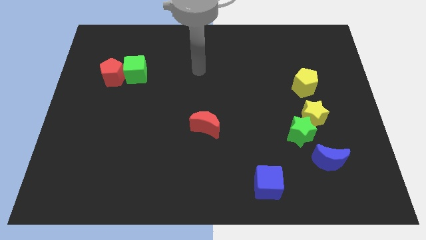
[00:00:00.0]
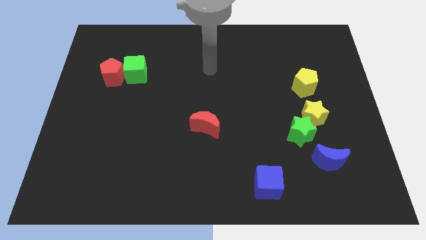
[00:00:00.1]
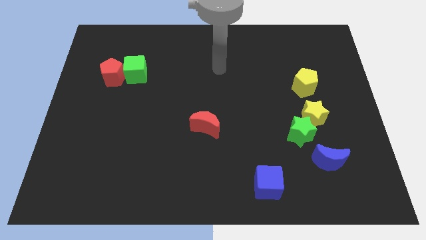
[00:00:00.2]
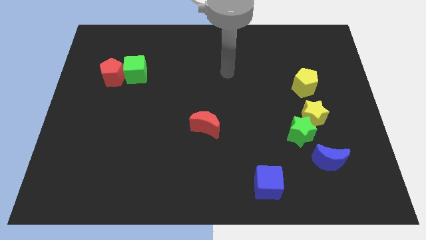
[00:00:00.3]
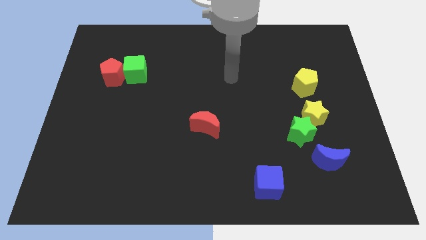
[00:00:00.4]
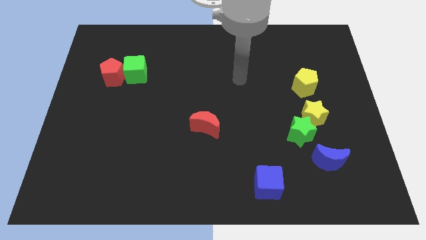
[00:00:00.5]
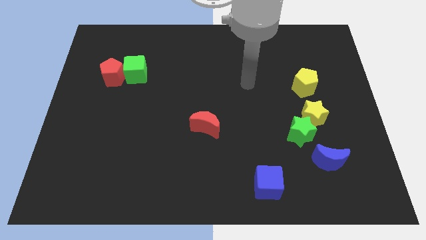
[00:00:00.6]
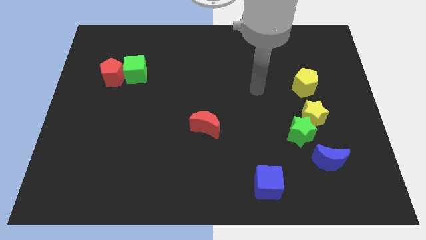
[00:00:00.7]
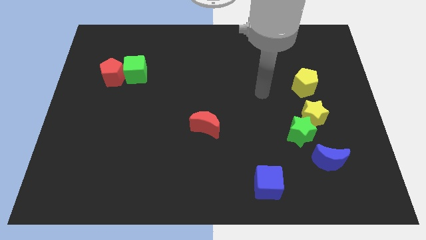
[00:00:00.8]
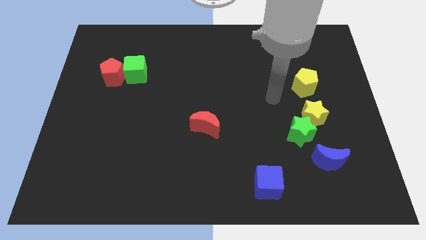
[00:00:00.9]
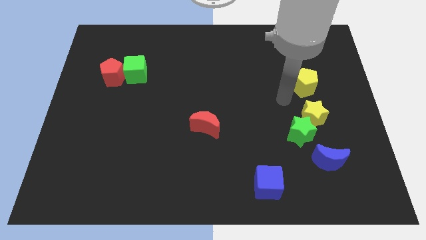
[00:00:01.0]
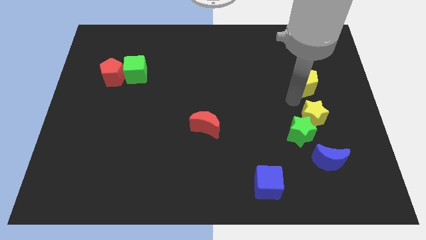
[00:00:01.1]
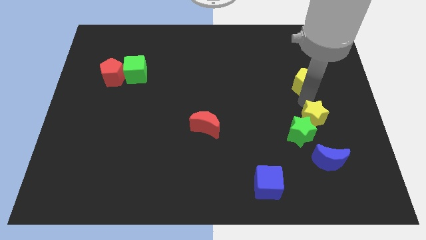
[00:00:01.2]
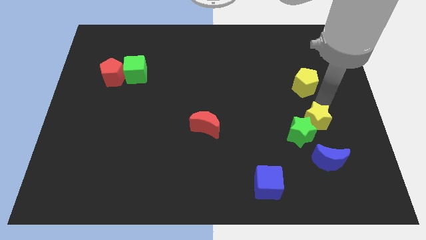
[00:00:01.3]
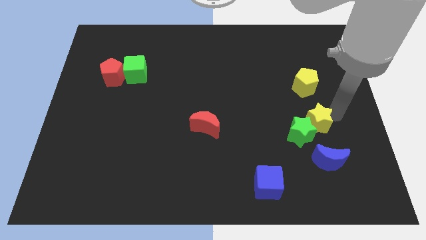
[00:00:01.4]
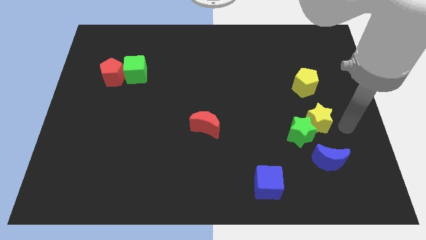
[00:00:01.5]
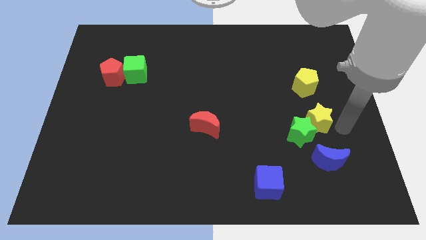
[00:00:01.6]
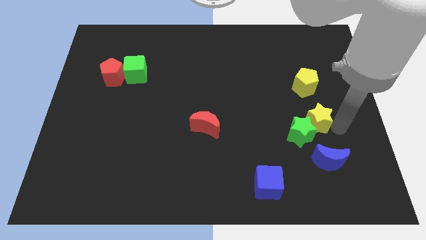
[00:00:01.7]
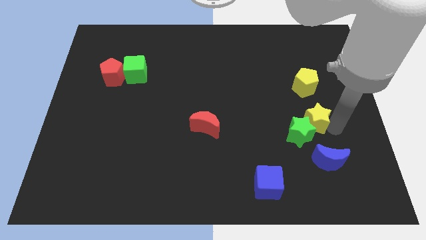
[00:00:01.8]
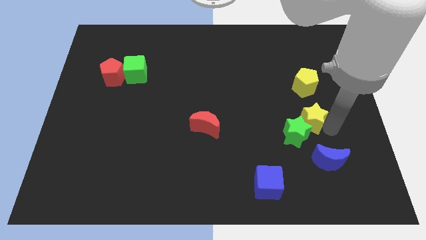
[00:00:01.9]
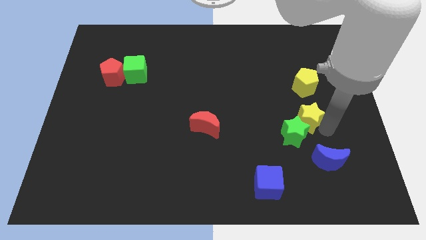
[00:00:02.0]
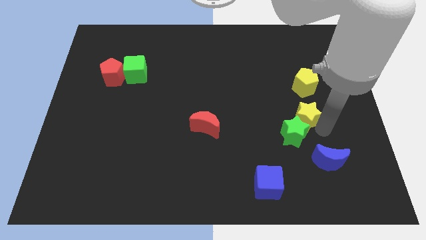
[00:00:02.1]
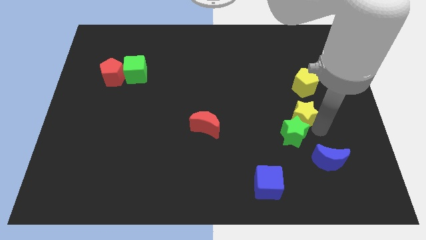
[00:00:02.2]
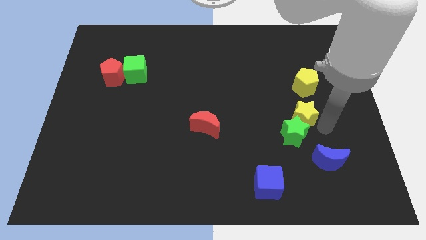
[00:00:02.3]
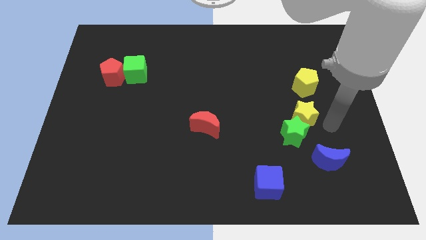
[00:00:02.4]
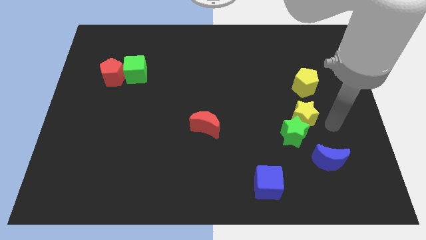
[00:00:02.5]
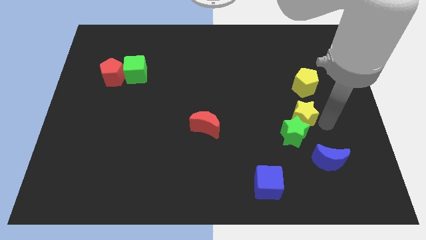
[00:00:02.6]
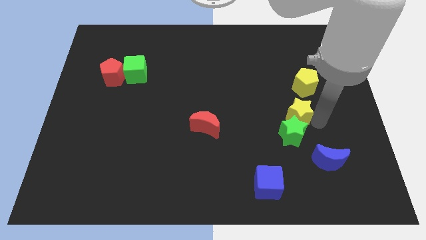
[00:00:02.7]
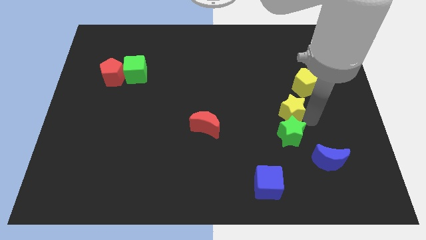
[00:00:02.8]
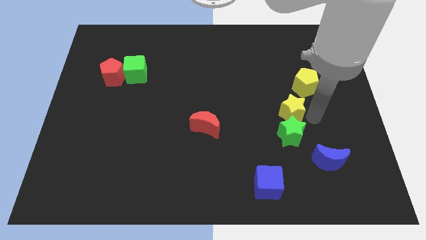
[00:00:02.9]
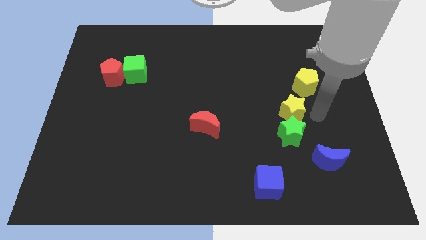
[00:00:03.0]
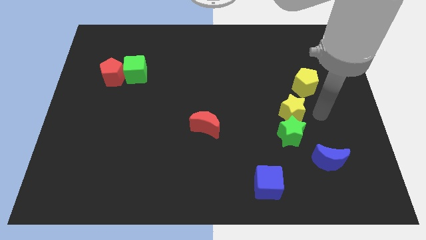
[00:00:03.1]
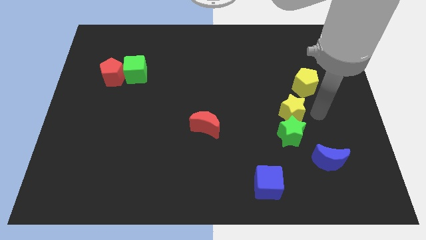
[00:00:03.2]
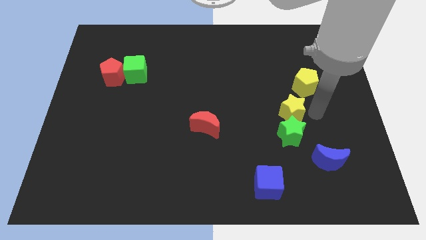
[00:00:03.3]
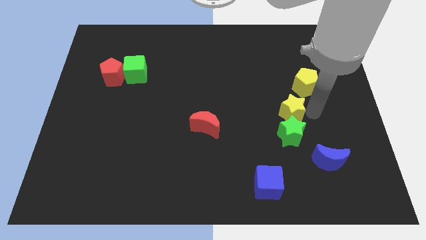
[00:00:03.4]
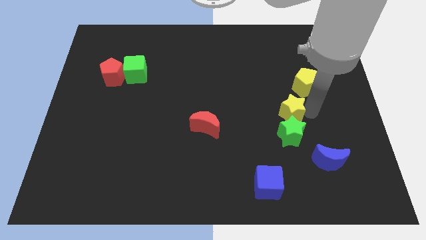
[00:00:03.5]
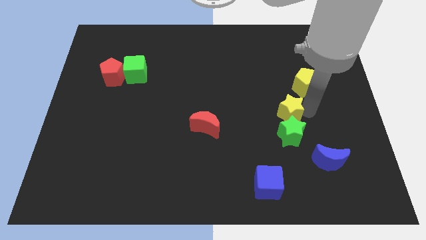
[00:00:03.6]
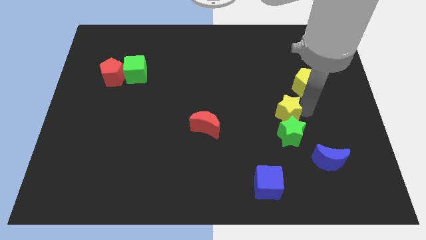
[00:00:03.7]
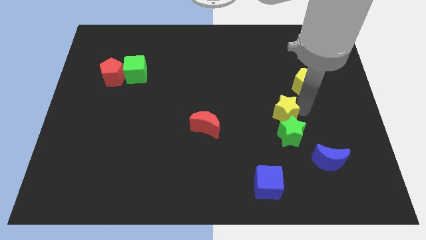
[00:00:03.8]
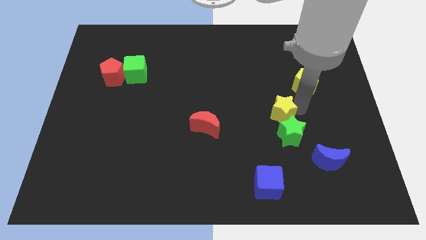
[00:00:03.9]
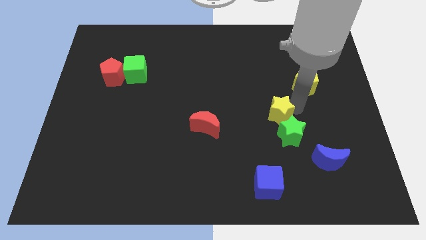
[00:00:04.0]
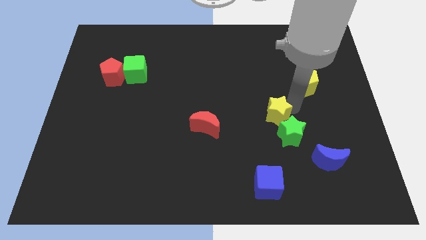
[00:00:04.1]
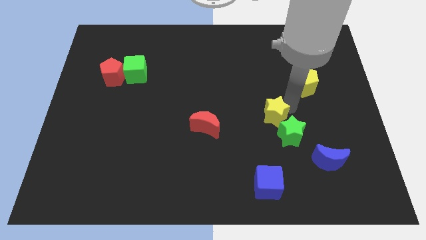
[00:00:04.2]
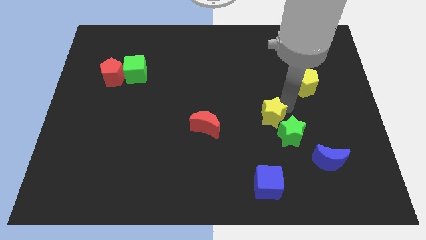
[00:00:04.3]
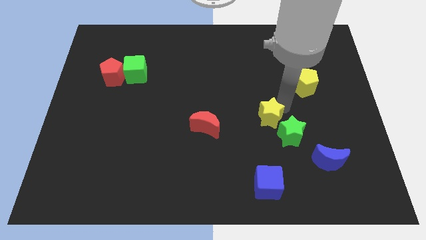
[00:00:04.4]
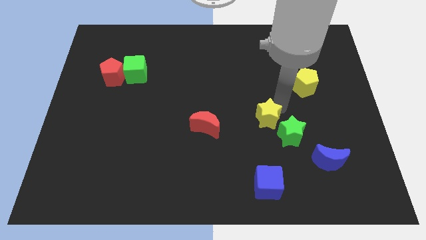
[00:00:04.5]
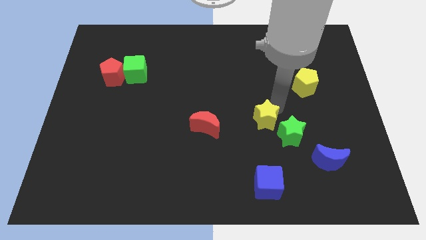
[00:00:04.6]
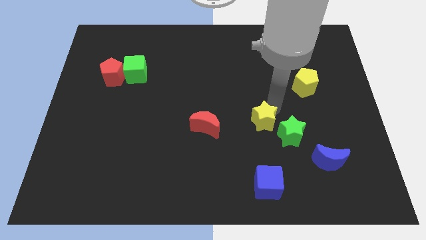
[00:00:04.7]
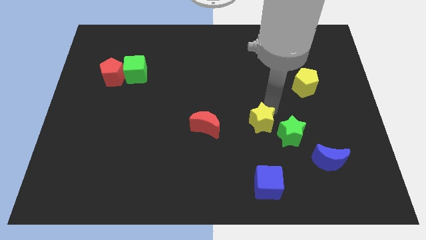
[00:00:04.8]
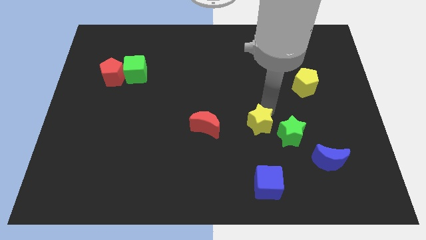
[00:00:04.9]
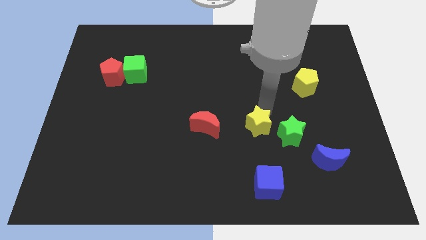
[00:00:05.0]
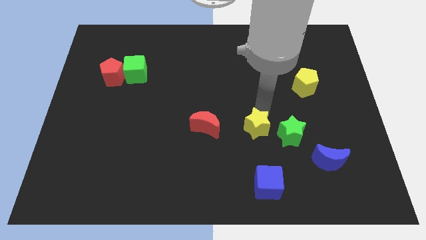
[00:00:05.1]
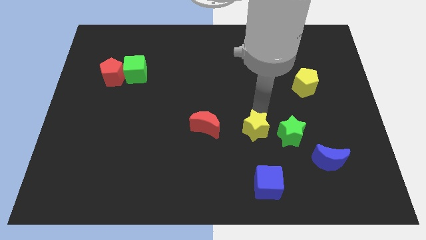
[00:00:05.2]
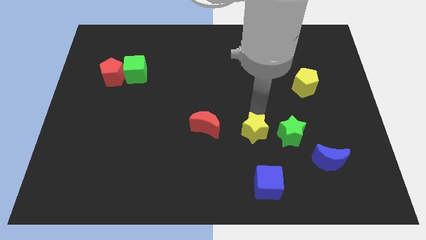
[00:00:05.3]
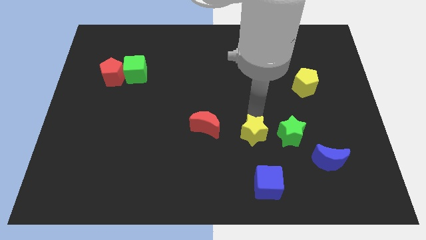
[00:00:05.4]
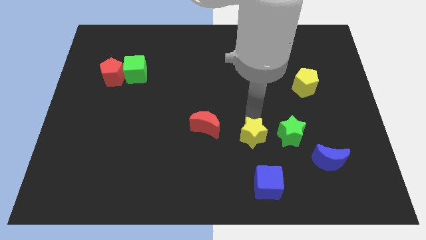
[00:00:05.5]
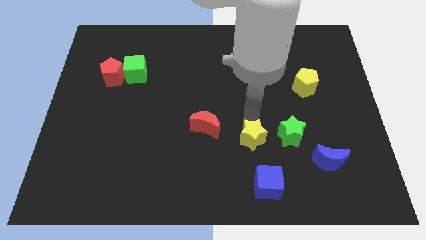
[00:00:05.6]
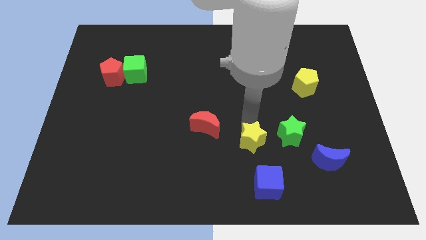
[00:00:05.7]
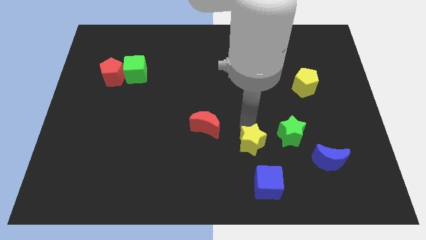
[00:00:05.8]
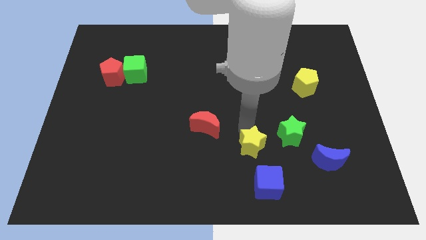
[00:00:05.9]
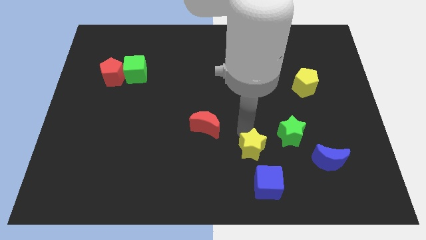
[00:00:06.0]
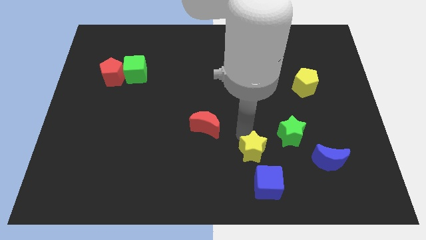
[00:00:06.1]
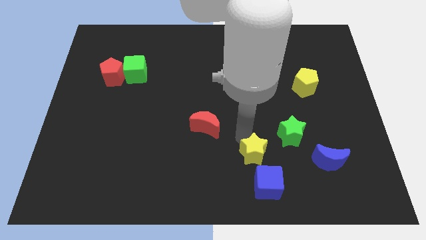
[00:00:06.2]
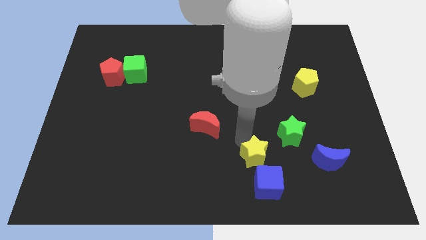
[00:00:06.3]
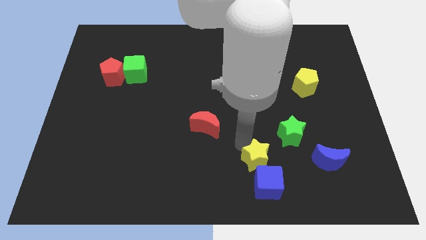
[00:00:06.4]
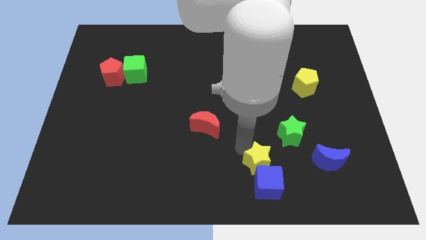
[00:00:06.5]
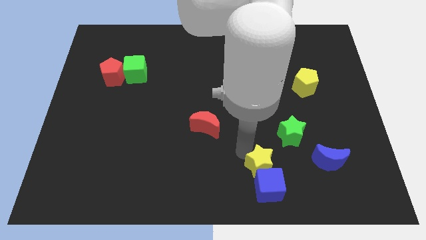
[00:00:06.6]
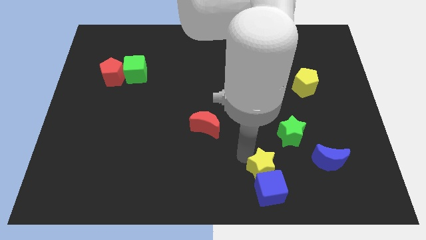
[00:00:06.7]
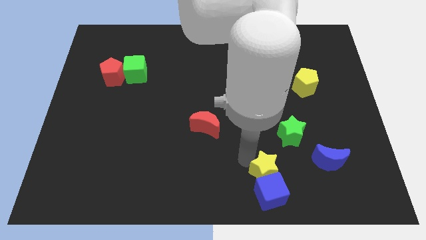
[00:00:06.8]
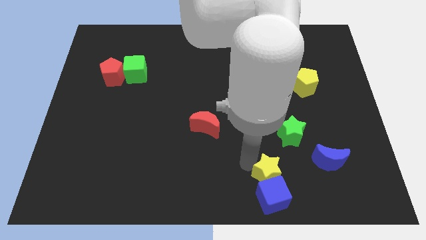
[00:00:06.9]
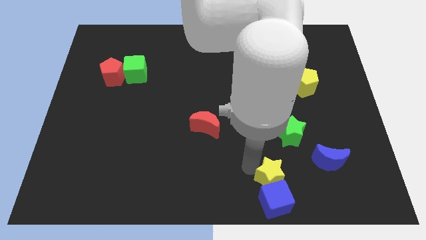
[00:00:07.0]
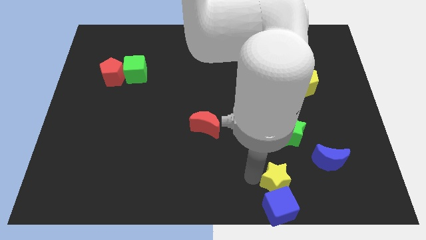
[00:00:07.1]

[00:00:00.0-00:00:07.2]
slide the yellow star below the green star

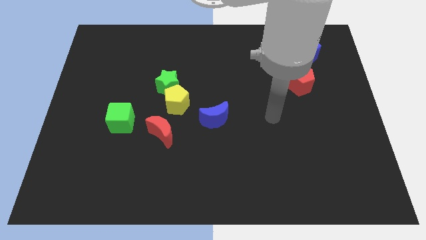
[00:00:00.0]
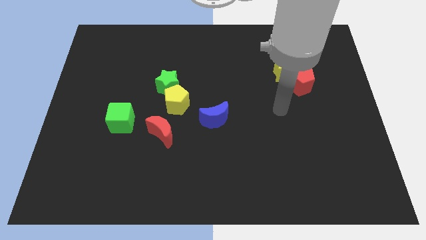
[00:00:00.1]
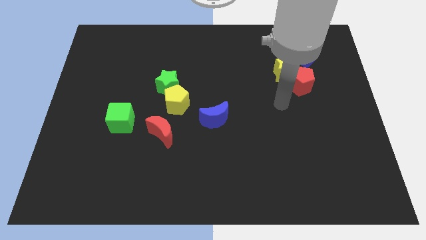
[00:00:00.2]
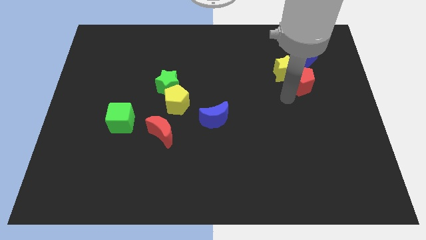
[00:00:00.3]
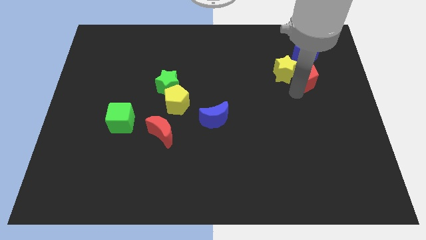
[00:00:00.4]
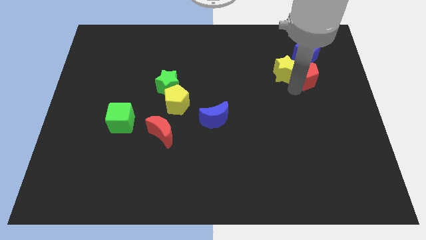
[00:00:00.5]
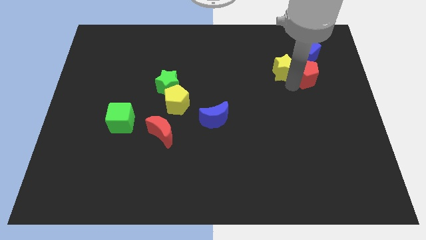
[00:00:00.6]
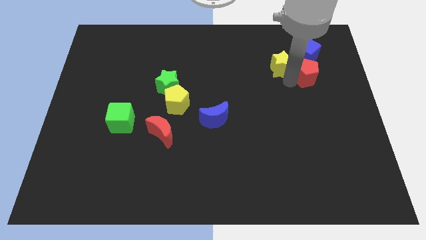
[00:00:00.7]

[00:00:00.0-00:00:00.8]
slide the yellow star to the left of the blue cube
